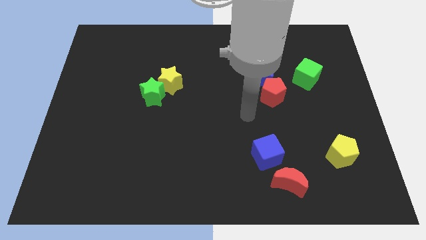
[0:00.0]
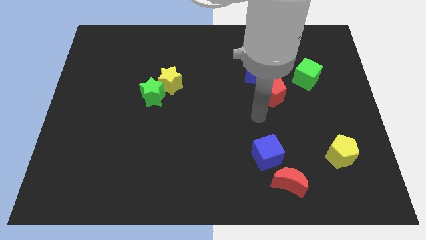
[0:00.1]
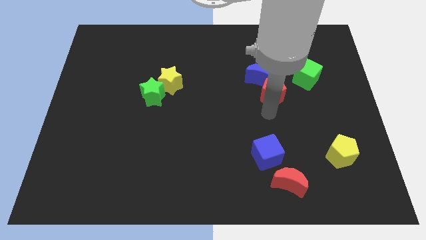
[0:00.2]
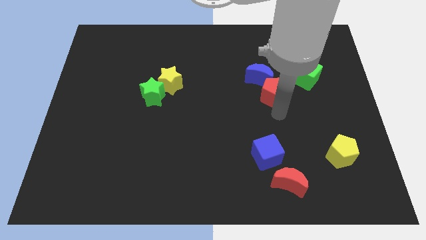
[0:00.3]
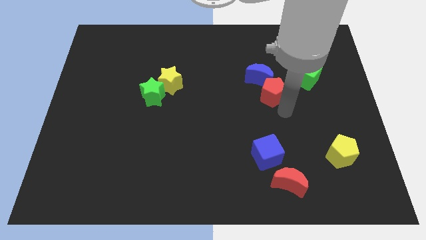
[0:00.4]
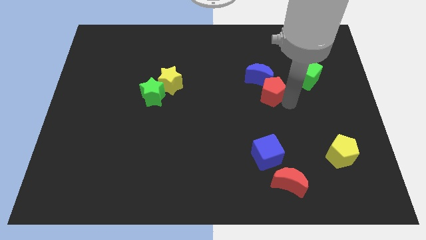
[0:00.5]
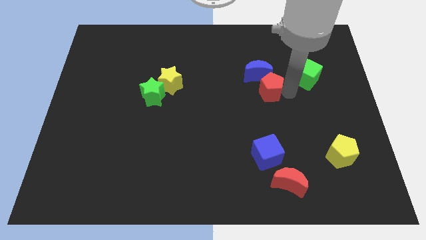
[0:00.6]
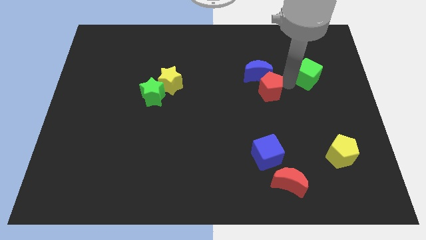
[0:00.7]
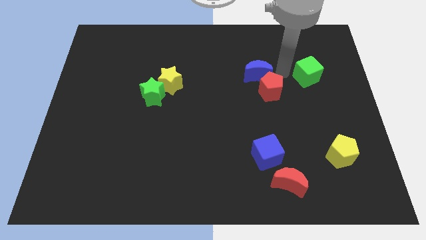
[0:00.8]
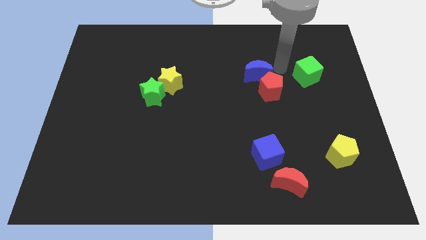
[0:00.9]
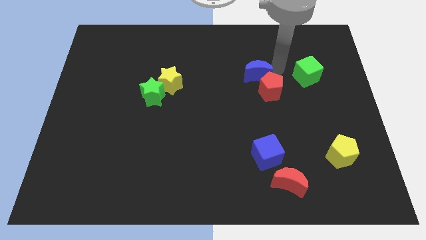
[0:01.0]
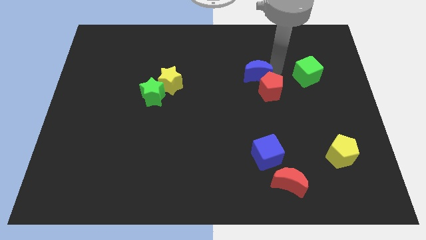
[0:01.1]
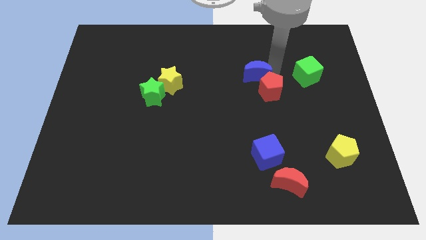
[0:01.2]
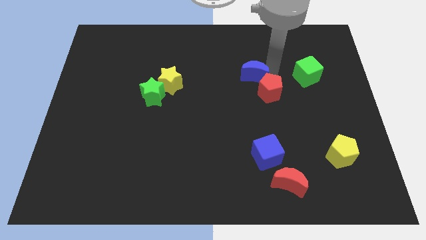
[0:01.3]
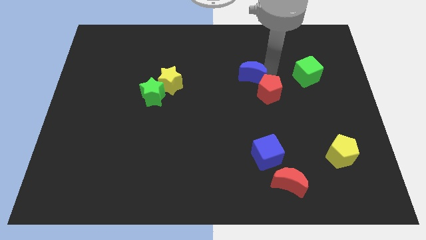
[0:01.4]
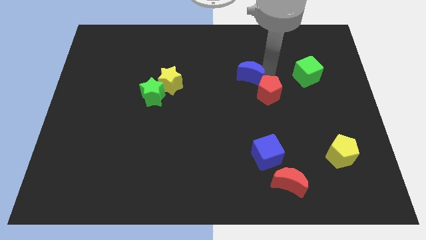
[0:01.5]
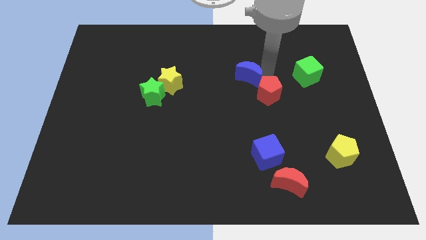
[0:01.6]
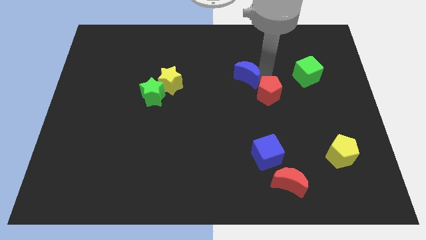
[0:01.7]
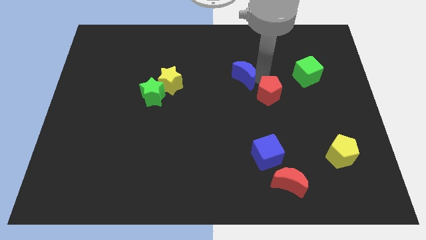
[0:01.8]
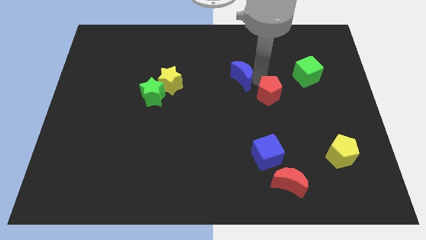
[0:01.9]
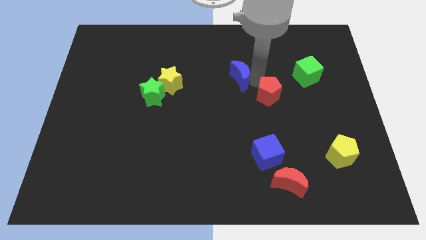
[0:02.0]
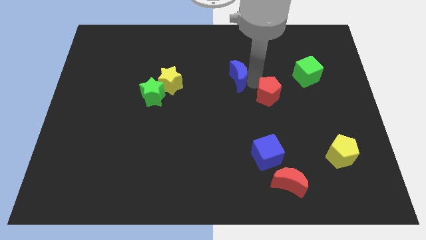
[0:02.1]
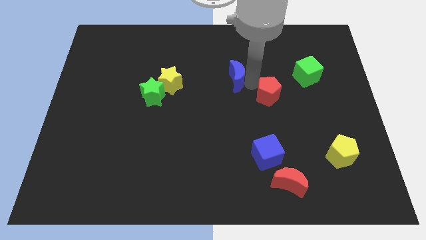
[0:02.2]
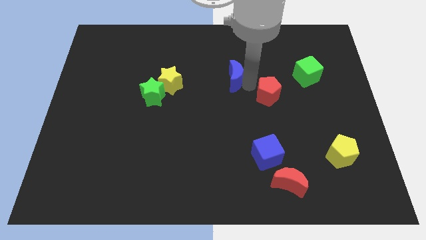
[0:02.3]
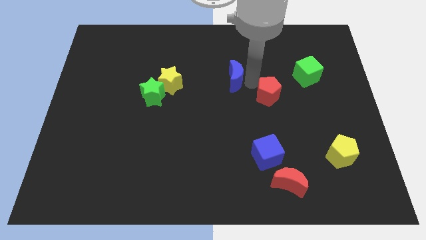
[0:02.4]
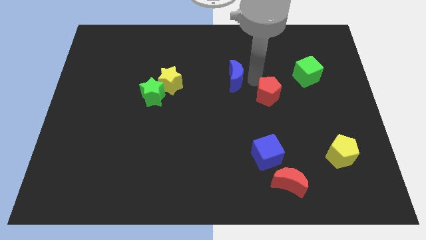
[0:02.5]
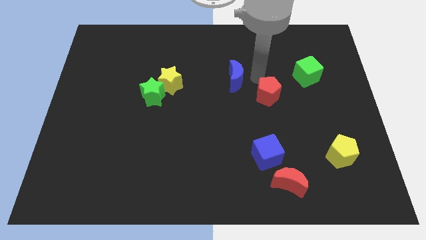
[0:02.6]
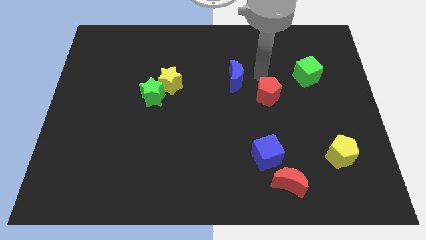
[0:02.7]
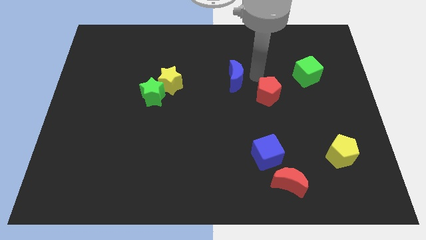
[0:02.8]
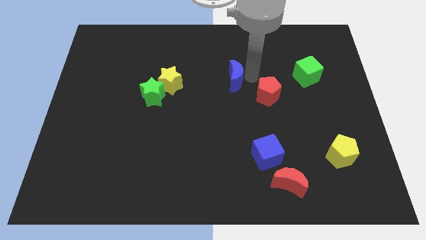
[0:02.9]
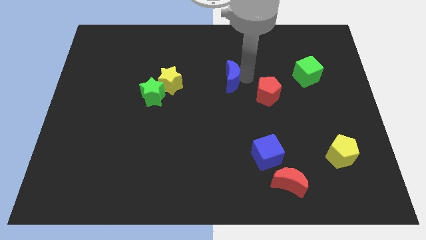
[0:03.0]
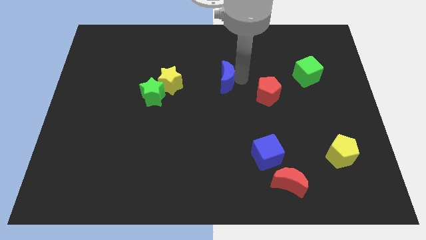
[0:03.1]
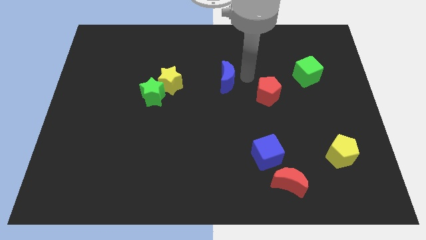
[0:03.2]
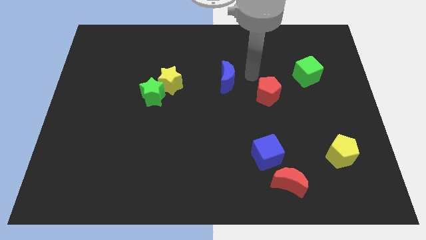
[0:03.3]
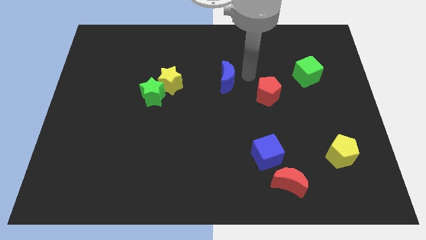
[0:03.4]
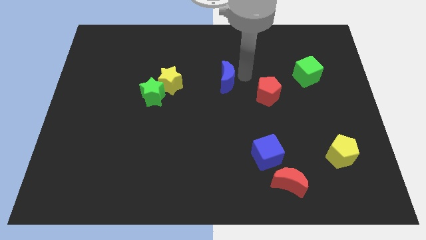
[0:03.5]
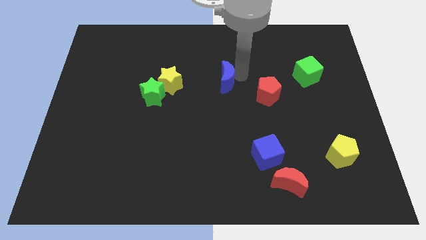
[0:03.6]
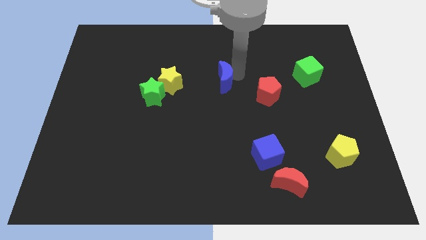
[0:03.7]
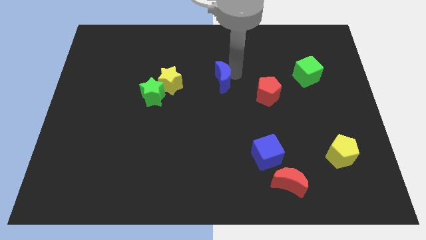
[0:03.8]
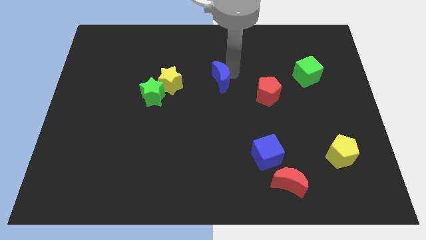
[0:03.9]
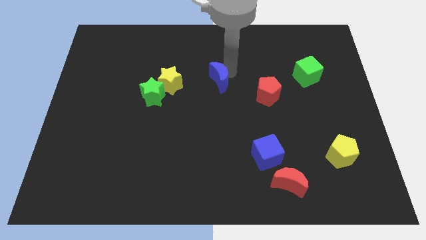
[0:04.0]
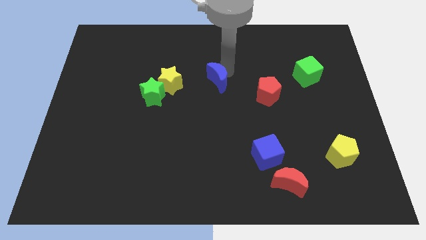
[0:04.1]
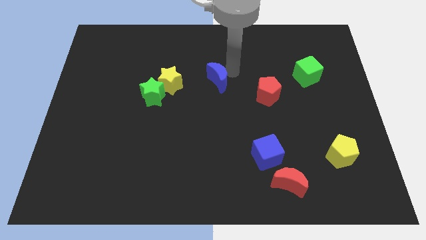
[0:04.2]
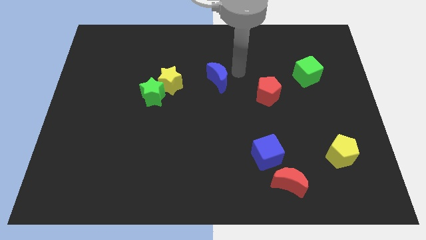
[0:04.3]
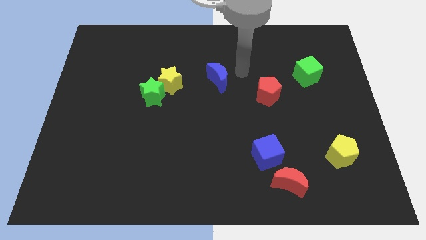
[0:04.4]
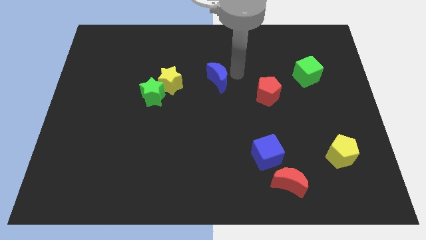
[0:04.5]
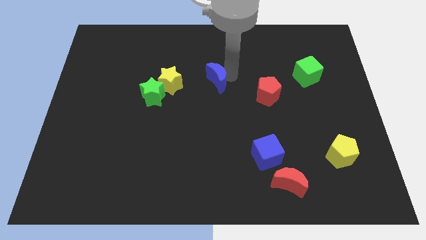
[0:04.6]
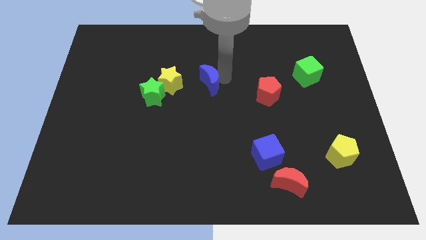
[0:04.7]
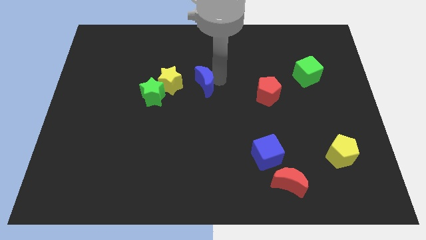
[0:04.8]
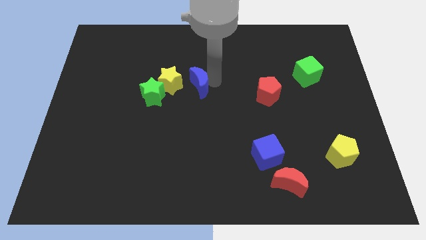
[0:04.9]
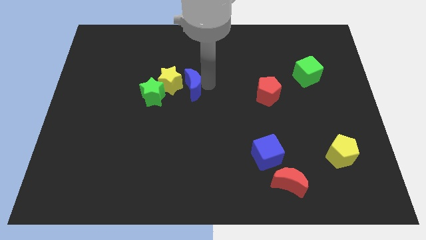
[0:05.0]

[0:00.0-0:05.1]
move the blue moon next to the yellow star

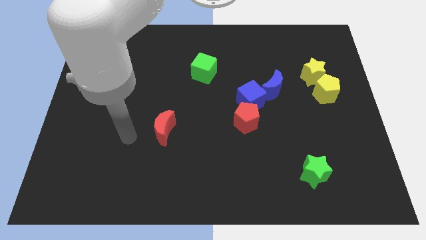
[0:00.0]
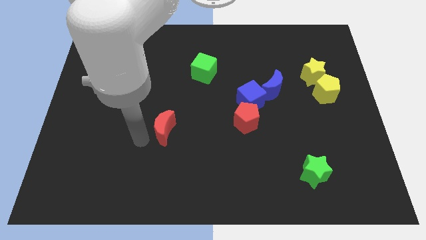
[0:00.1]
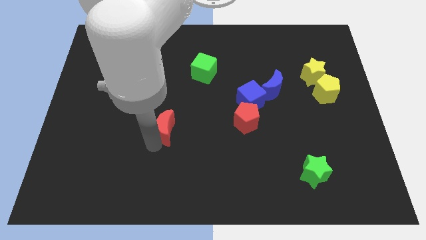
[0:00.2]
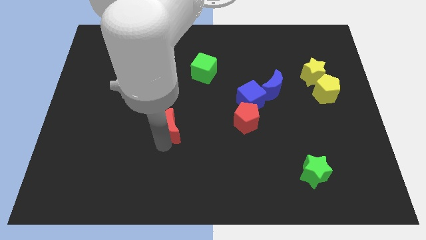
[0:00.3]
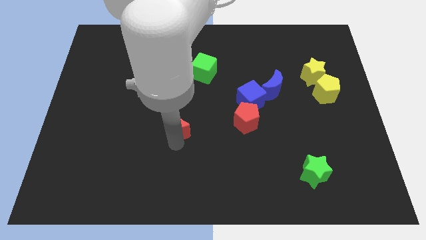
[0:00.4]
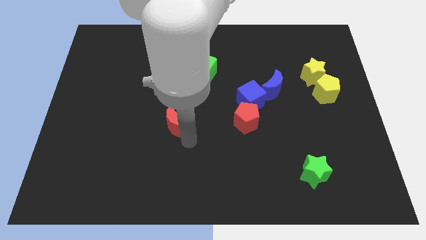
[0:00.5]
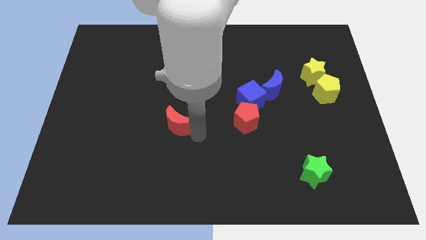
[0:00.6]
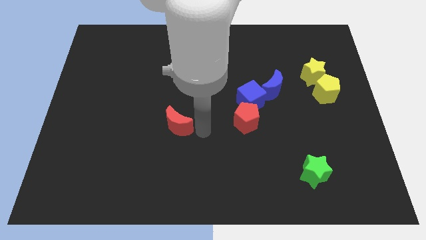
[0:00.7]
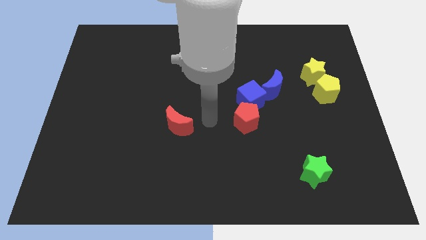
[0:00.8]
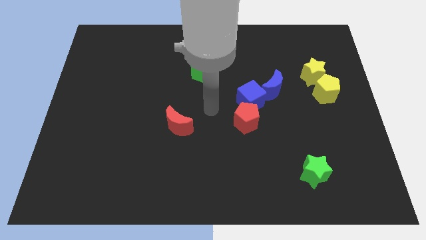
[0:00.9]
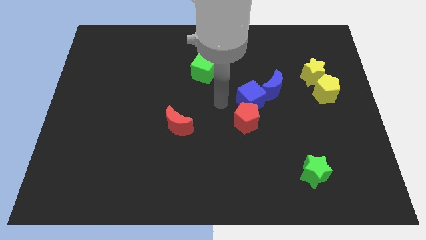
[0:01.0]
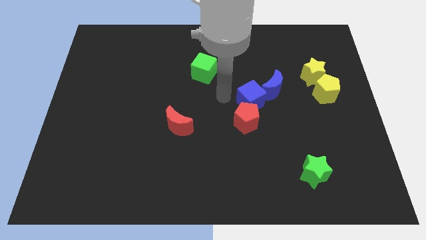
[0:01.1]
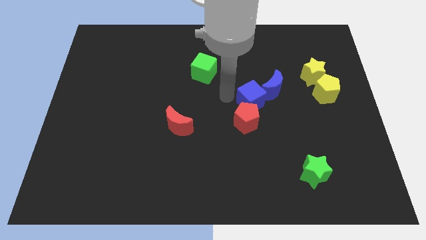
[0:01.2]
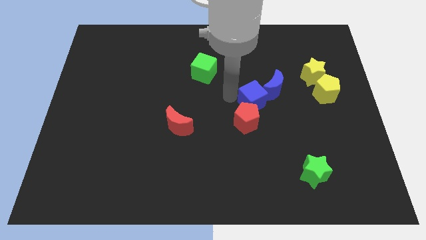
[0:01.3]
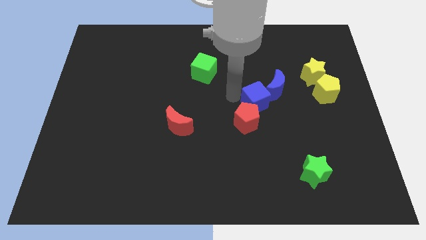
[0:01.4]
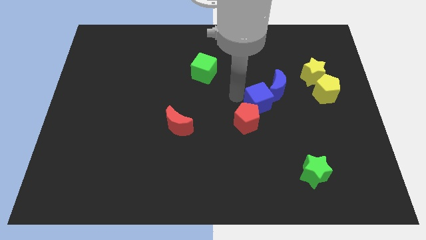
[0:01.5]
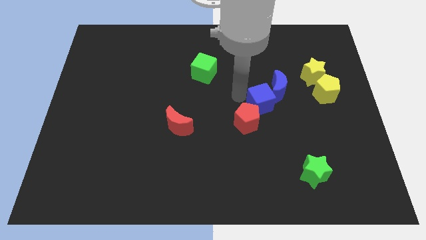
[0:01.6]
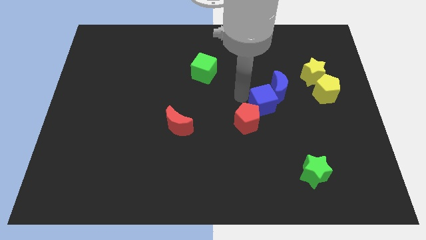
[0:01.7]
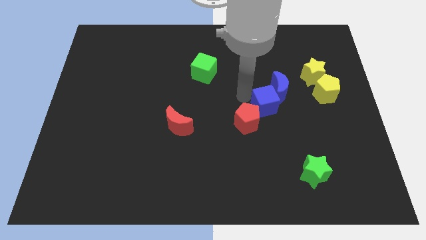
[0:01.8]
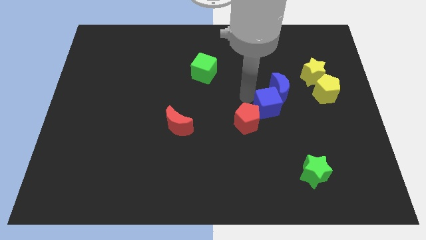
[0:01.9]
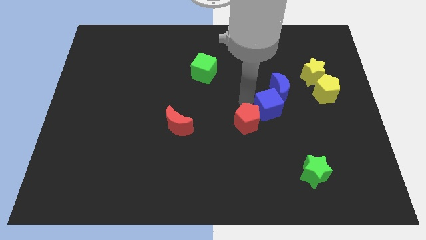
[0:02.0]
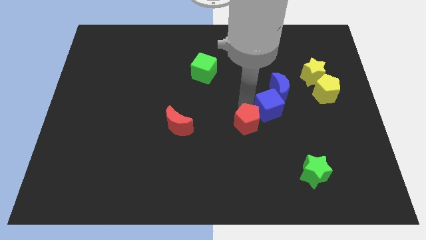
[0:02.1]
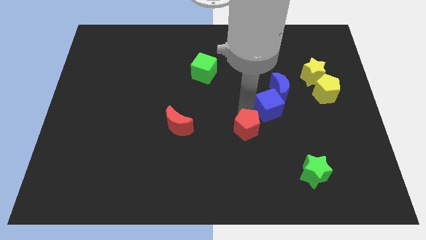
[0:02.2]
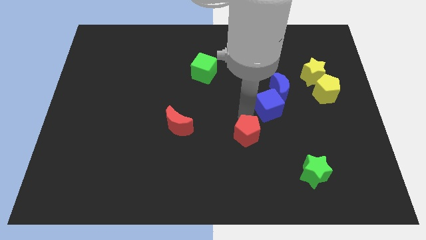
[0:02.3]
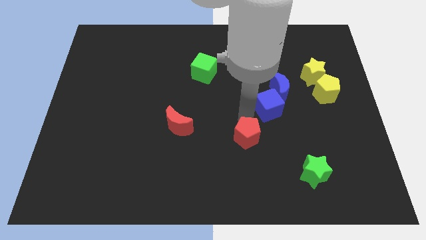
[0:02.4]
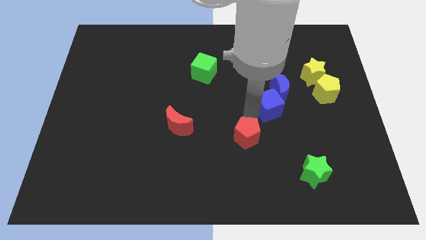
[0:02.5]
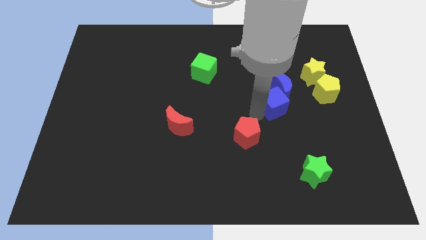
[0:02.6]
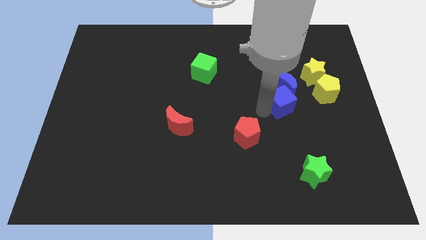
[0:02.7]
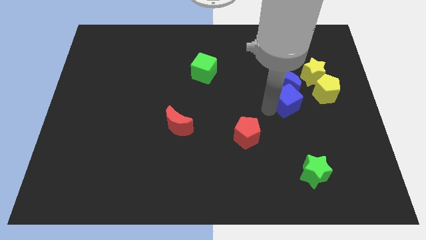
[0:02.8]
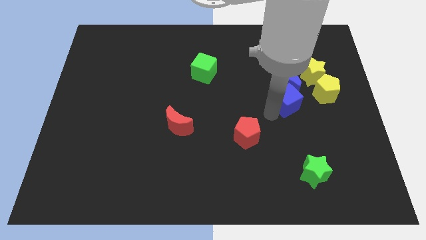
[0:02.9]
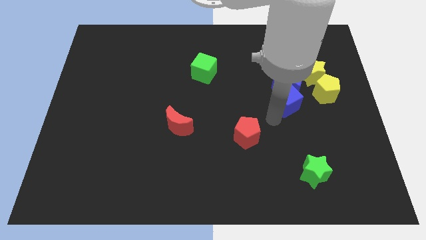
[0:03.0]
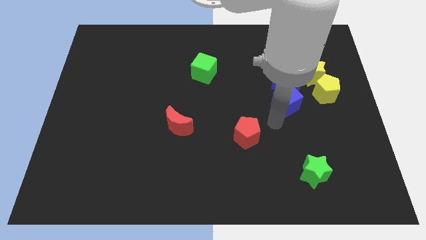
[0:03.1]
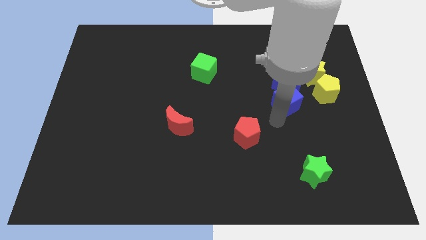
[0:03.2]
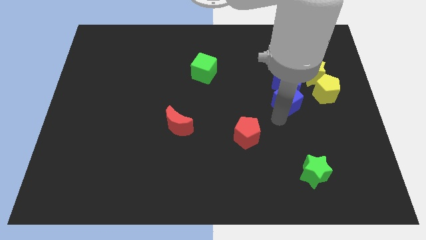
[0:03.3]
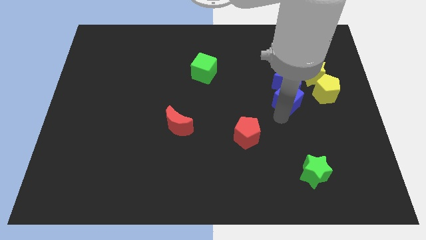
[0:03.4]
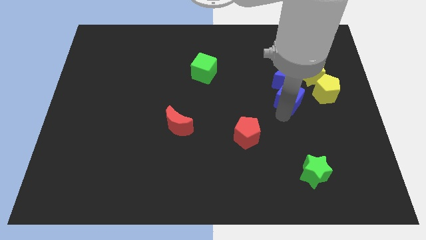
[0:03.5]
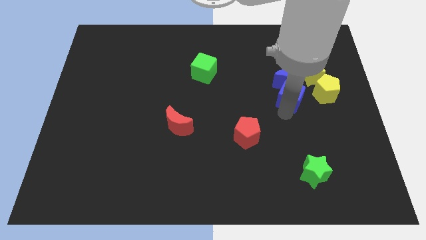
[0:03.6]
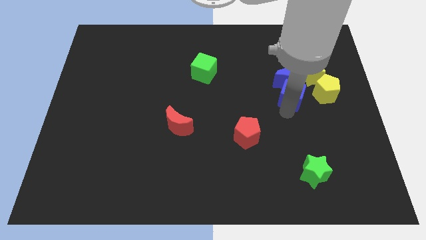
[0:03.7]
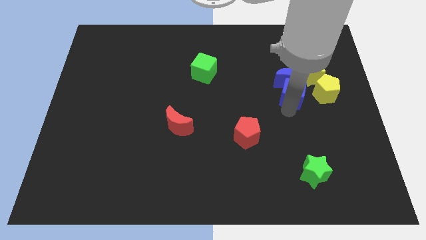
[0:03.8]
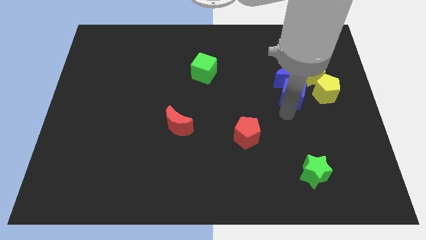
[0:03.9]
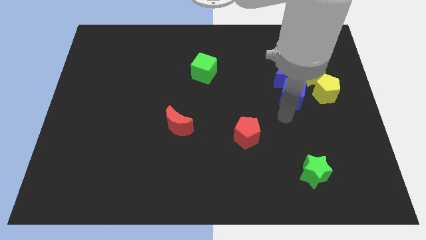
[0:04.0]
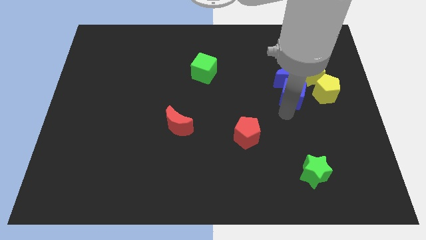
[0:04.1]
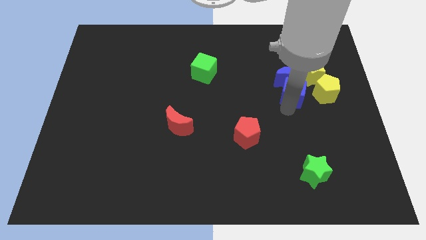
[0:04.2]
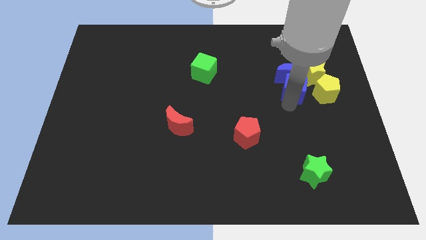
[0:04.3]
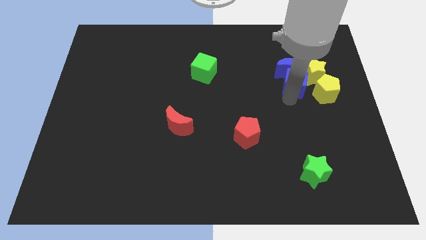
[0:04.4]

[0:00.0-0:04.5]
push the blue cube towards the yellow star
